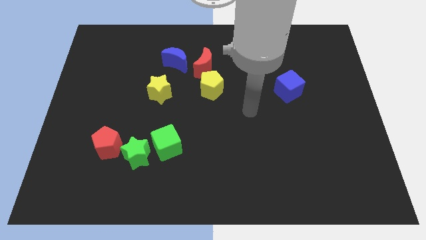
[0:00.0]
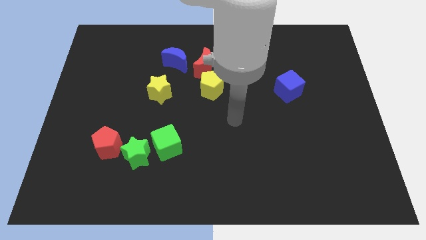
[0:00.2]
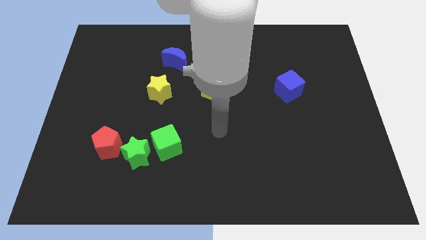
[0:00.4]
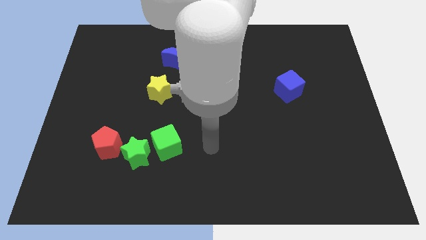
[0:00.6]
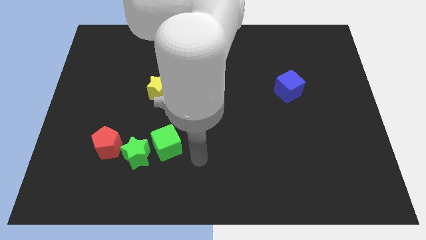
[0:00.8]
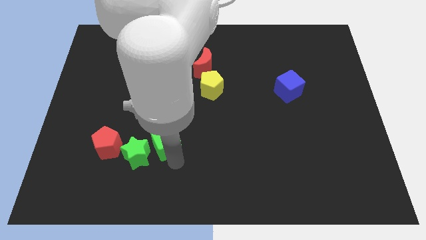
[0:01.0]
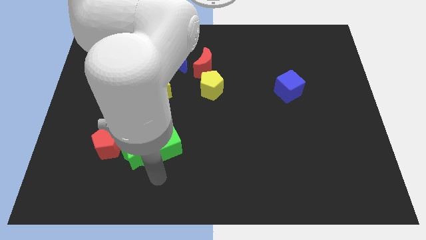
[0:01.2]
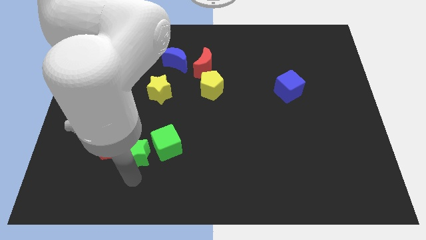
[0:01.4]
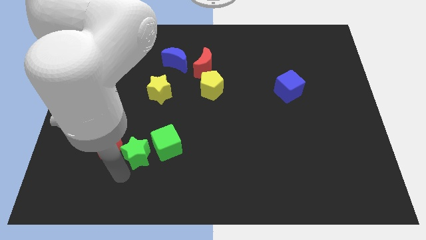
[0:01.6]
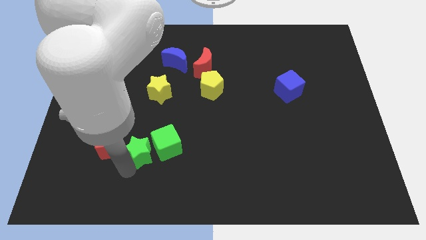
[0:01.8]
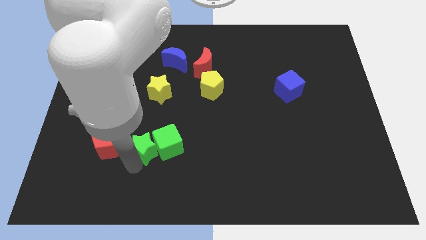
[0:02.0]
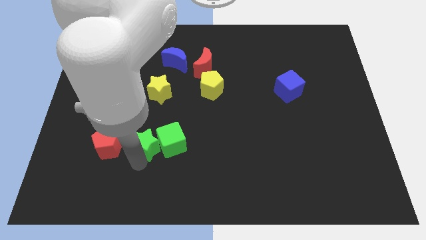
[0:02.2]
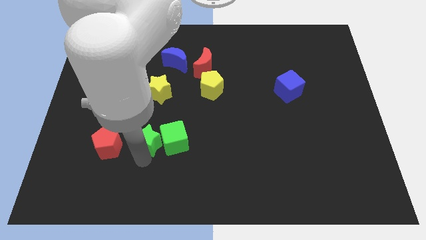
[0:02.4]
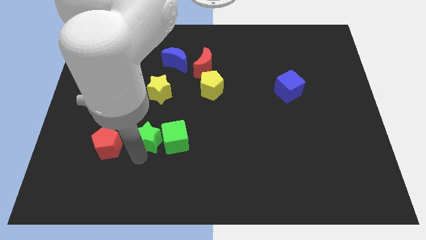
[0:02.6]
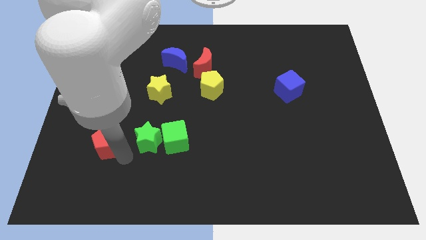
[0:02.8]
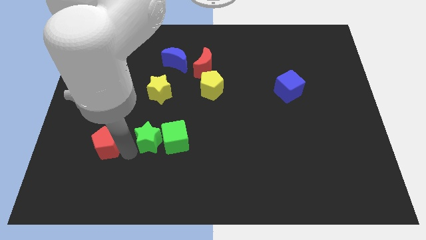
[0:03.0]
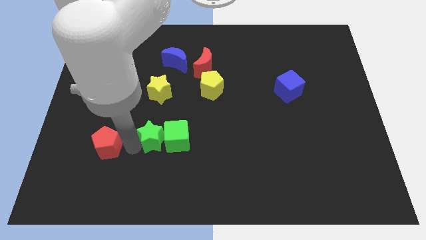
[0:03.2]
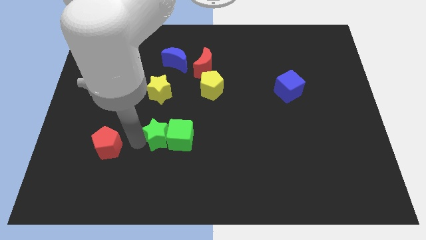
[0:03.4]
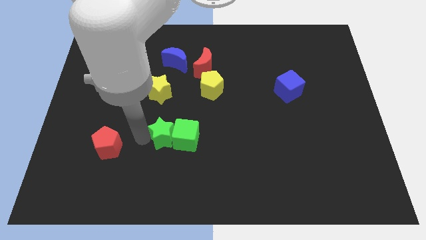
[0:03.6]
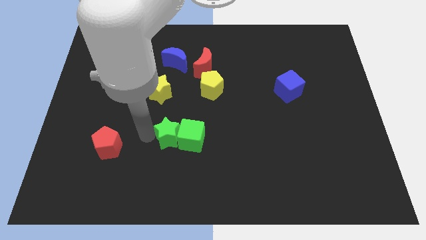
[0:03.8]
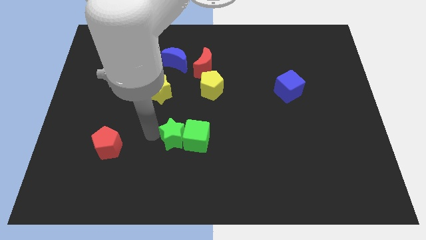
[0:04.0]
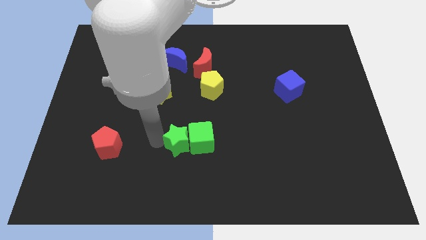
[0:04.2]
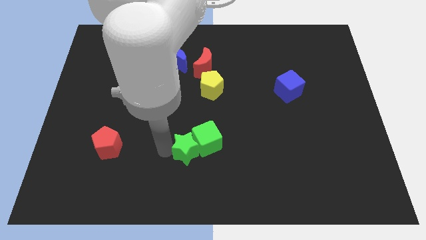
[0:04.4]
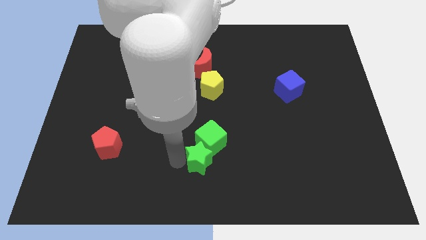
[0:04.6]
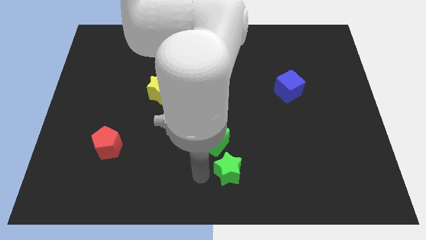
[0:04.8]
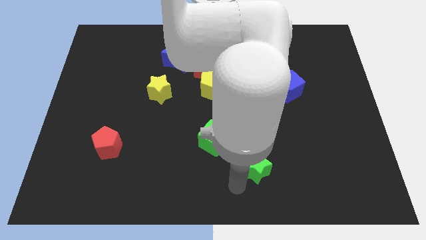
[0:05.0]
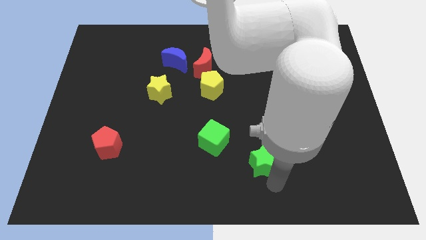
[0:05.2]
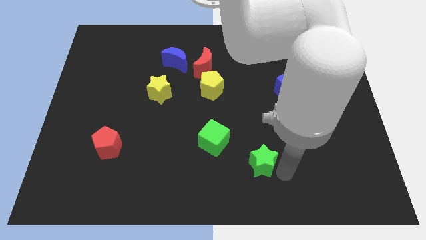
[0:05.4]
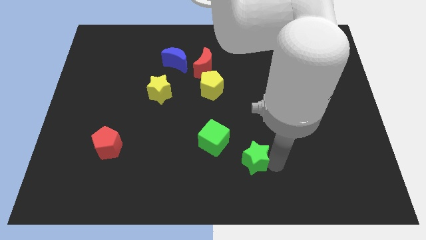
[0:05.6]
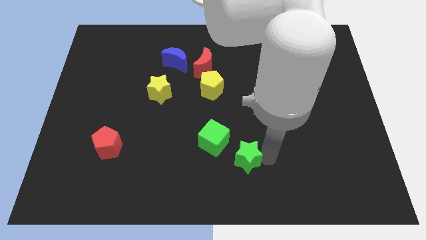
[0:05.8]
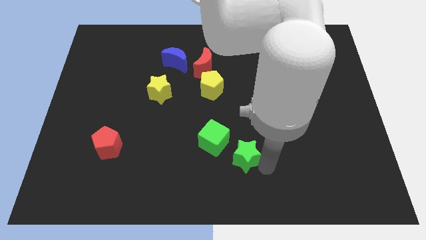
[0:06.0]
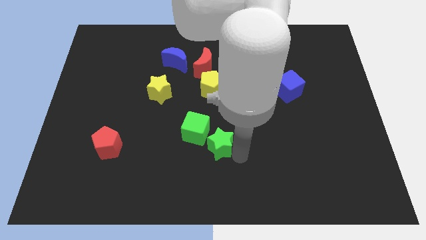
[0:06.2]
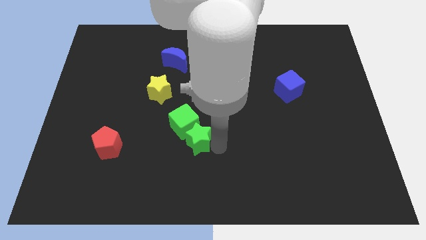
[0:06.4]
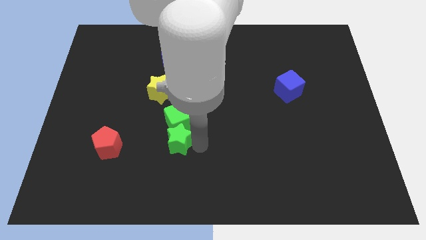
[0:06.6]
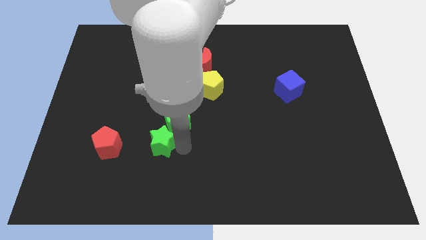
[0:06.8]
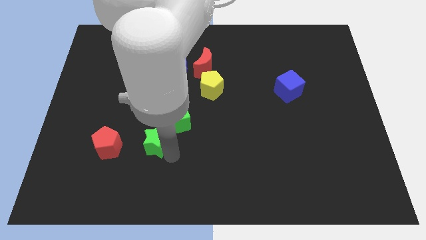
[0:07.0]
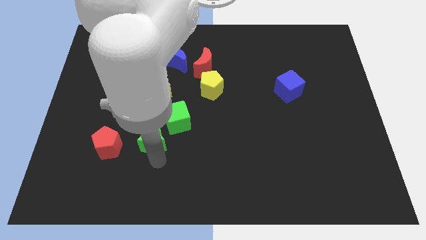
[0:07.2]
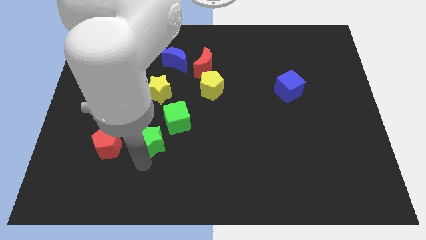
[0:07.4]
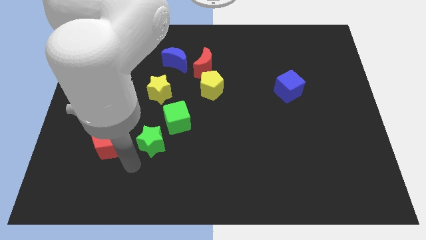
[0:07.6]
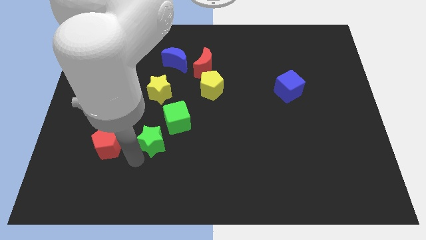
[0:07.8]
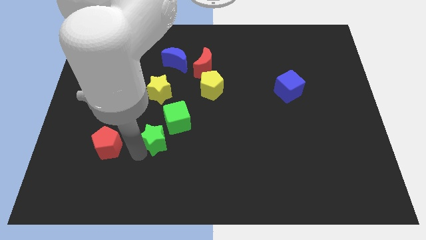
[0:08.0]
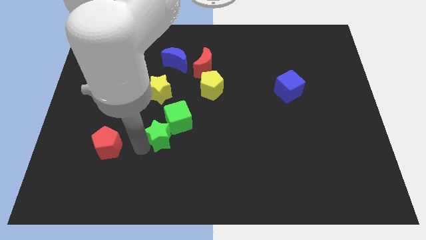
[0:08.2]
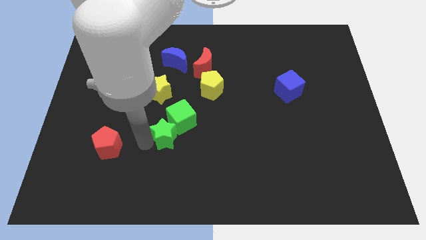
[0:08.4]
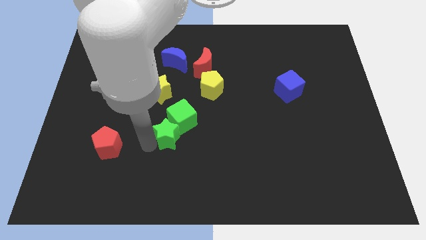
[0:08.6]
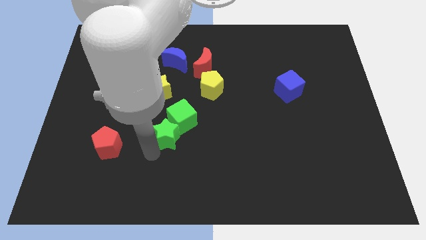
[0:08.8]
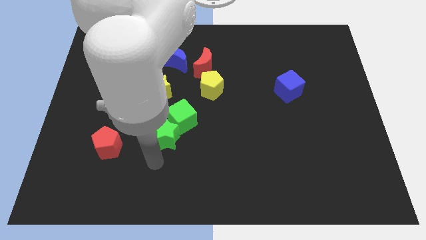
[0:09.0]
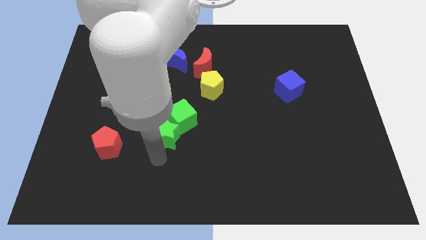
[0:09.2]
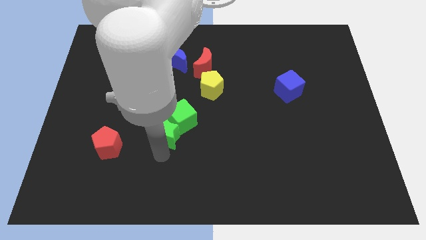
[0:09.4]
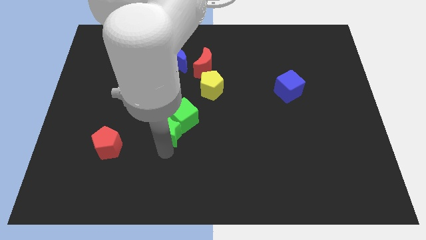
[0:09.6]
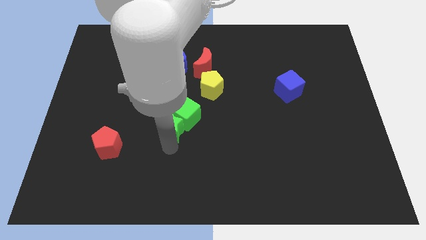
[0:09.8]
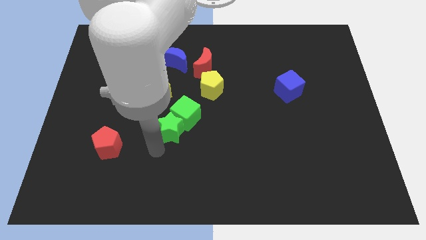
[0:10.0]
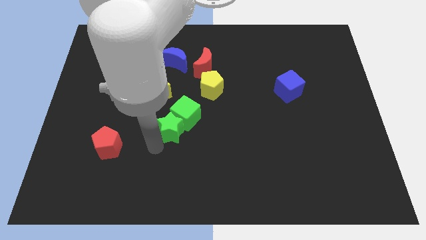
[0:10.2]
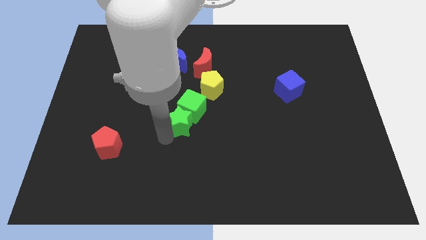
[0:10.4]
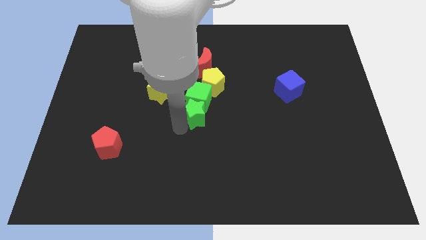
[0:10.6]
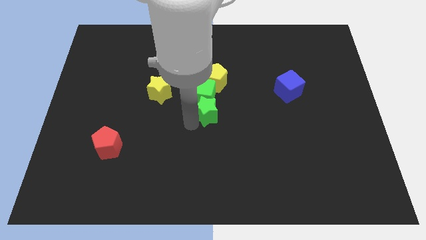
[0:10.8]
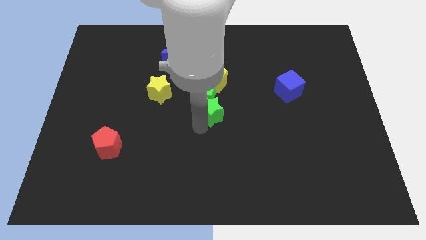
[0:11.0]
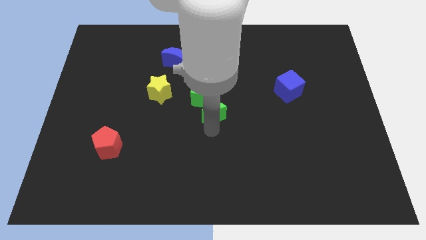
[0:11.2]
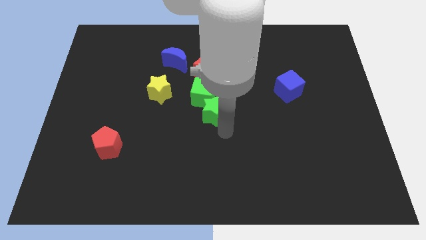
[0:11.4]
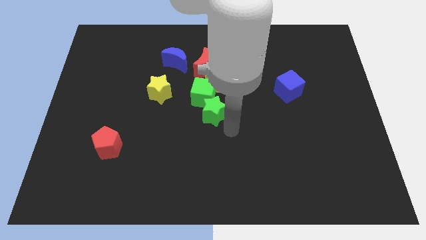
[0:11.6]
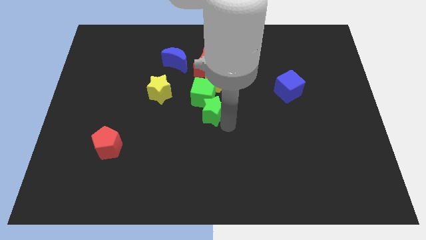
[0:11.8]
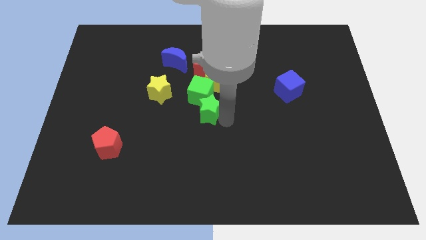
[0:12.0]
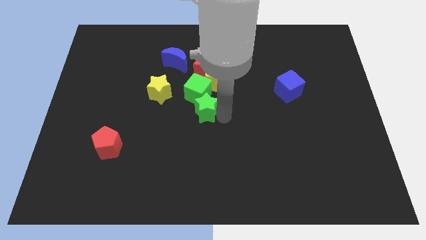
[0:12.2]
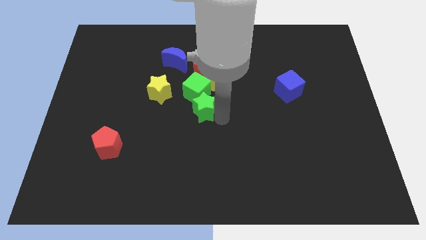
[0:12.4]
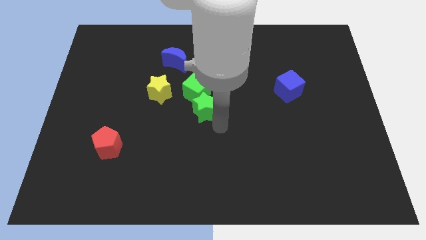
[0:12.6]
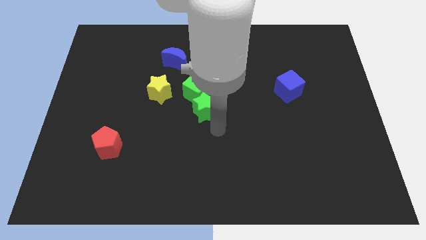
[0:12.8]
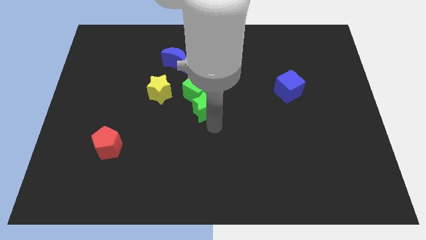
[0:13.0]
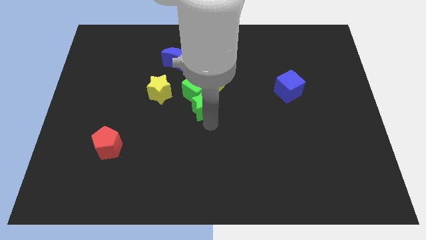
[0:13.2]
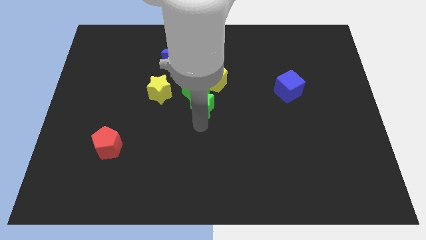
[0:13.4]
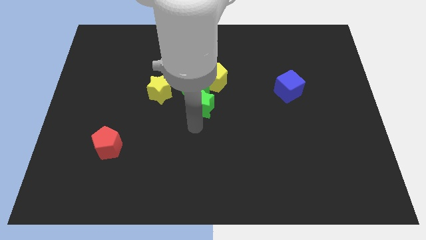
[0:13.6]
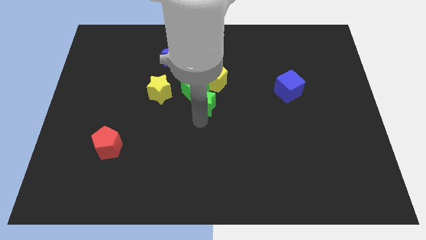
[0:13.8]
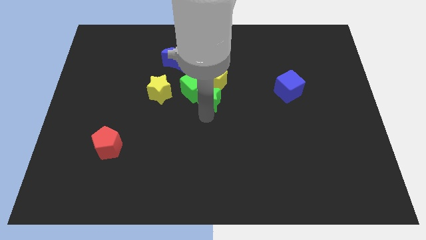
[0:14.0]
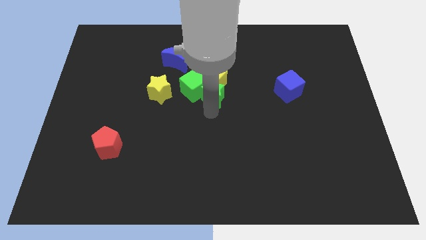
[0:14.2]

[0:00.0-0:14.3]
put the green star next to the yellow pentagon
